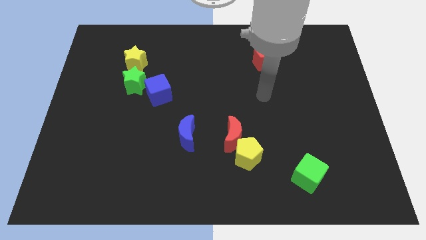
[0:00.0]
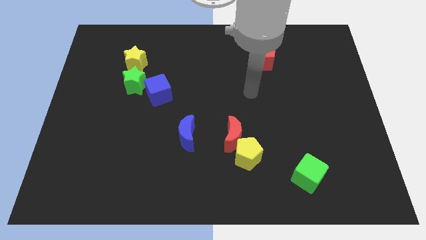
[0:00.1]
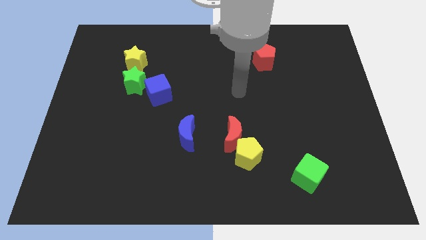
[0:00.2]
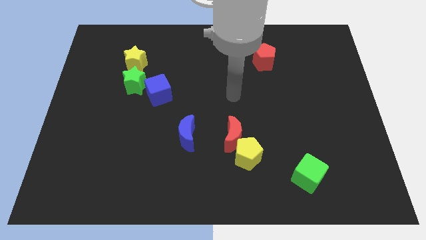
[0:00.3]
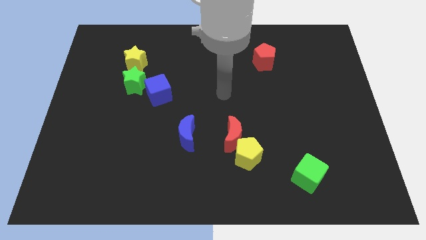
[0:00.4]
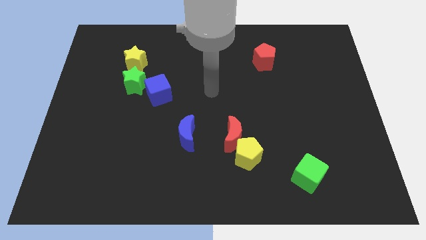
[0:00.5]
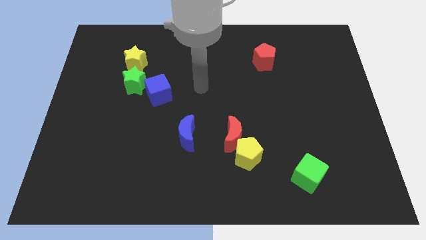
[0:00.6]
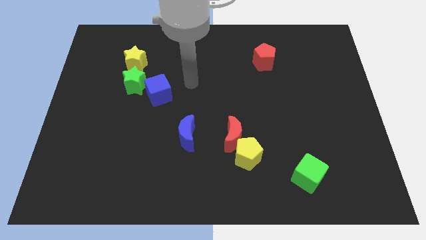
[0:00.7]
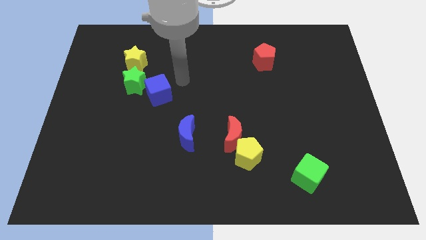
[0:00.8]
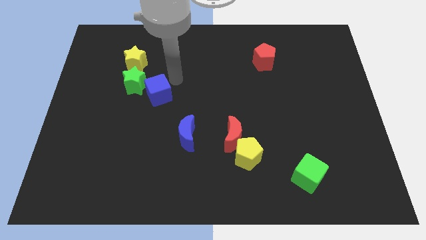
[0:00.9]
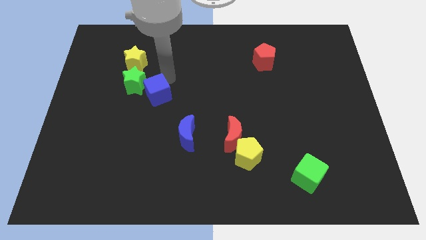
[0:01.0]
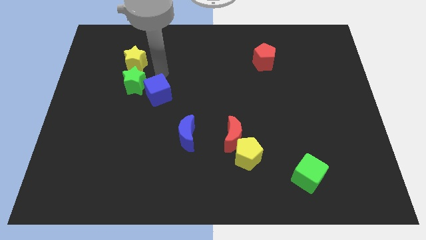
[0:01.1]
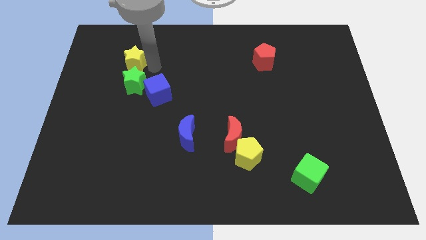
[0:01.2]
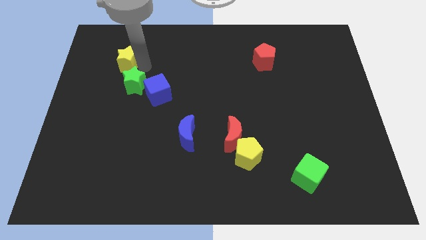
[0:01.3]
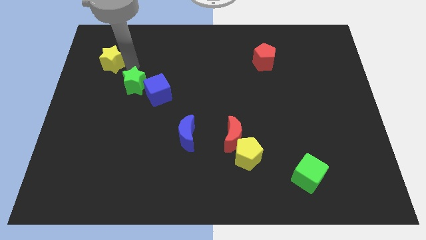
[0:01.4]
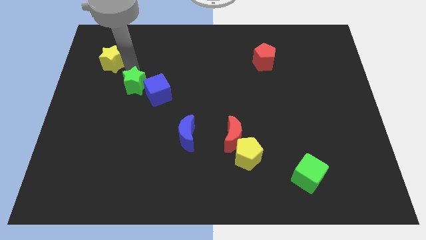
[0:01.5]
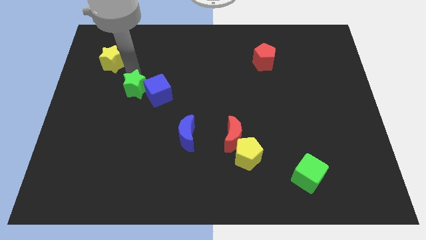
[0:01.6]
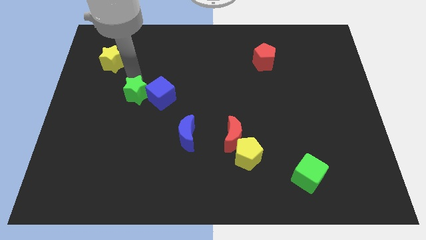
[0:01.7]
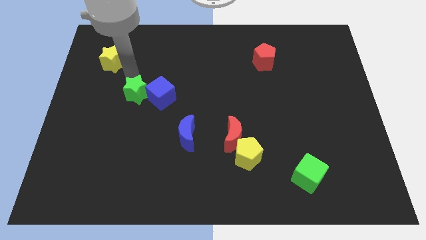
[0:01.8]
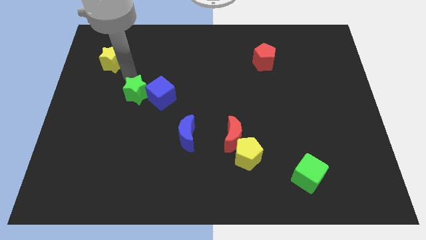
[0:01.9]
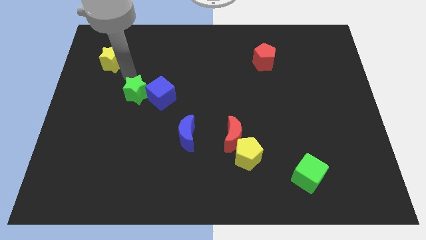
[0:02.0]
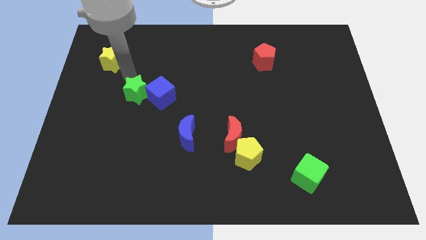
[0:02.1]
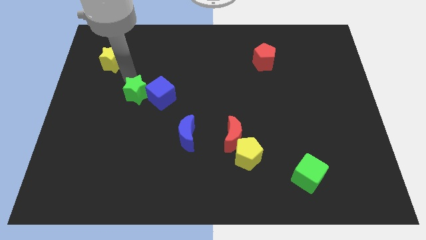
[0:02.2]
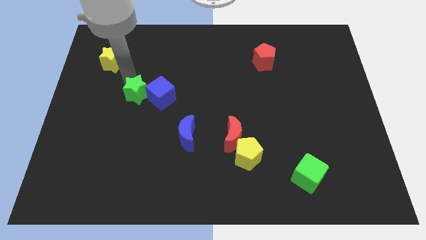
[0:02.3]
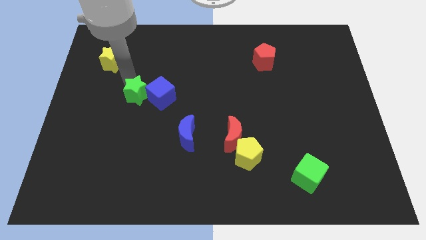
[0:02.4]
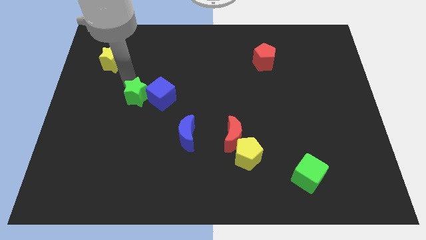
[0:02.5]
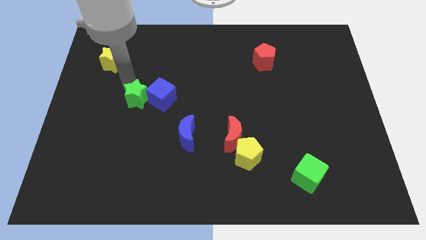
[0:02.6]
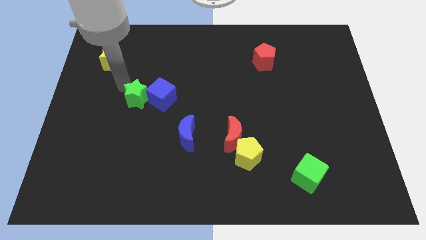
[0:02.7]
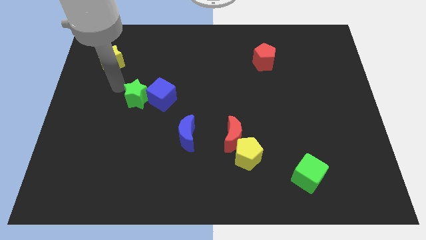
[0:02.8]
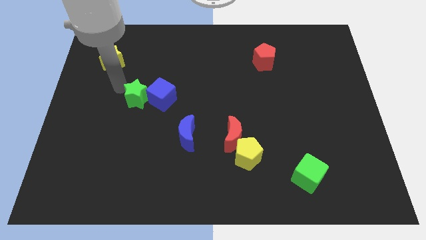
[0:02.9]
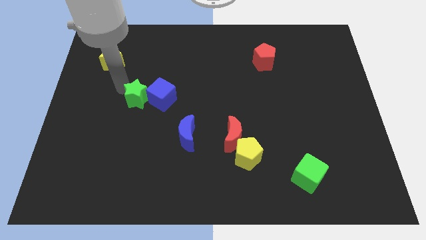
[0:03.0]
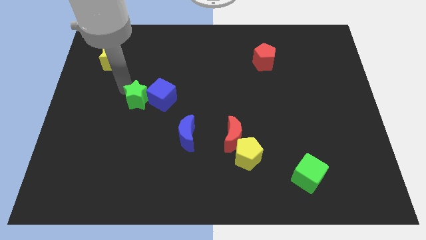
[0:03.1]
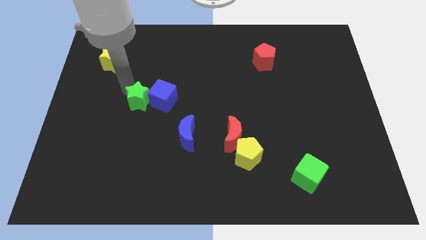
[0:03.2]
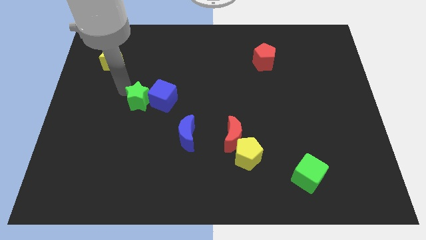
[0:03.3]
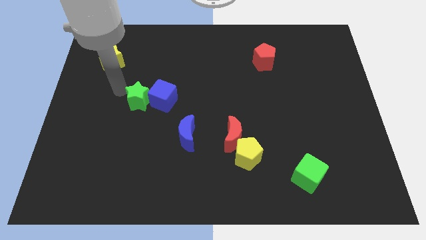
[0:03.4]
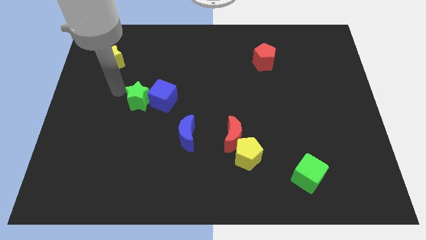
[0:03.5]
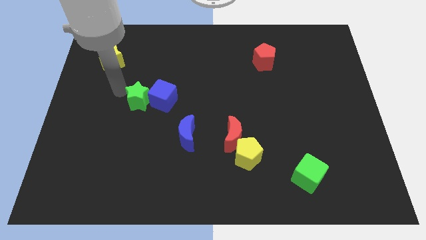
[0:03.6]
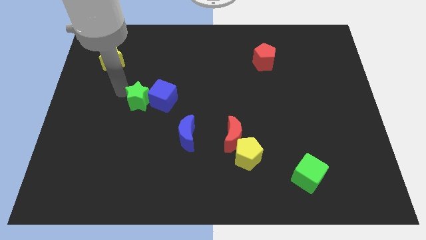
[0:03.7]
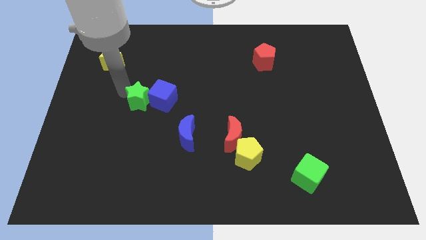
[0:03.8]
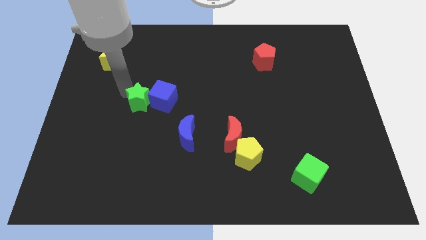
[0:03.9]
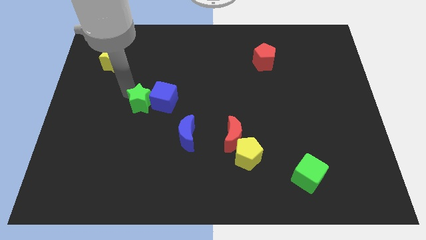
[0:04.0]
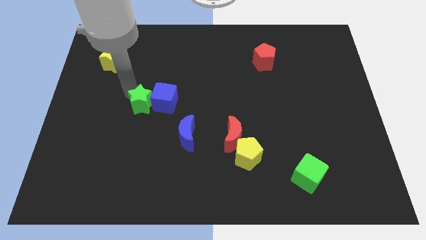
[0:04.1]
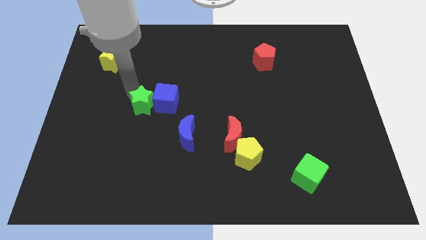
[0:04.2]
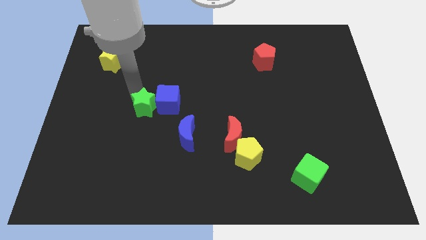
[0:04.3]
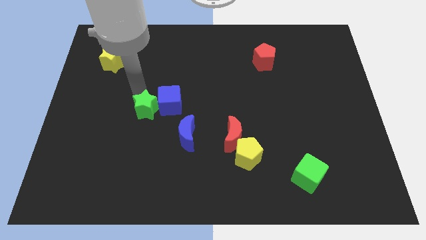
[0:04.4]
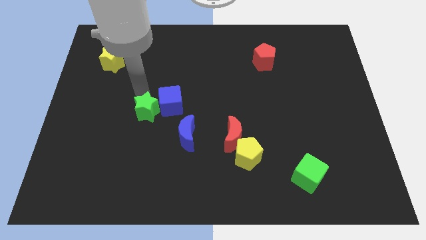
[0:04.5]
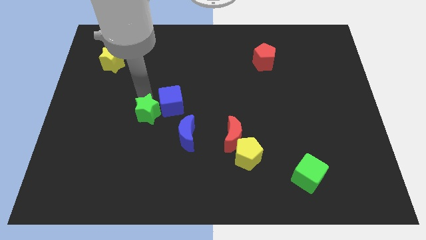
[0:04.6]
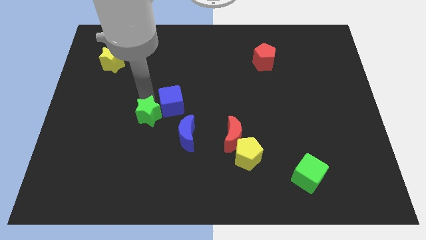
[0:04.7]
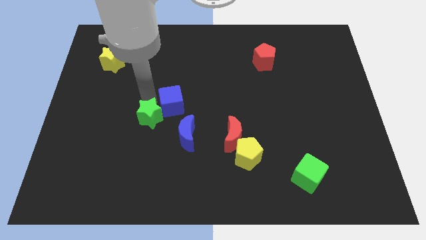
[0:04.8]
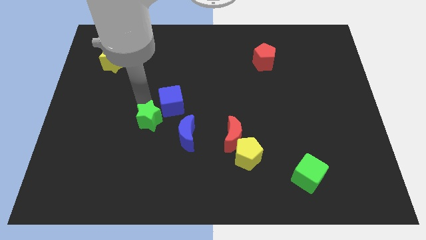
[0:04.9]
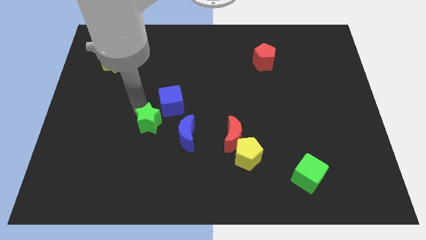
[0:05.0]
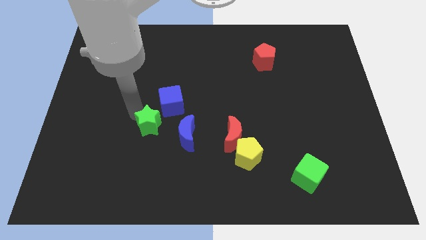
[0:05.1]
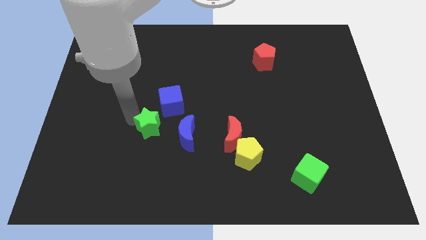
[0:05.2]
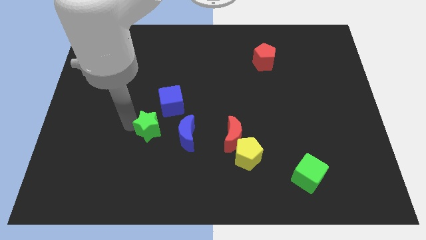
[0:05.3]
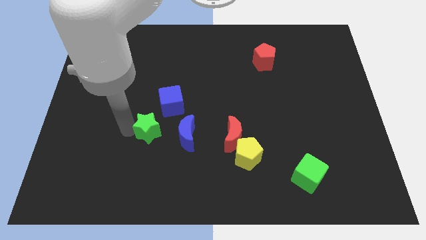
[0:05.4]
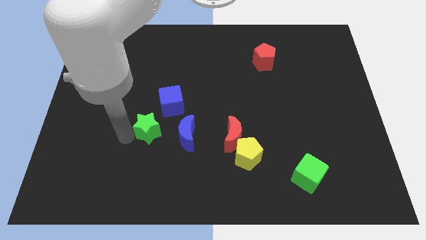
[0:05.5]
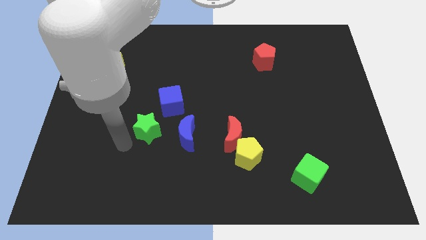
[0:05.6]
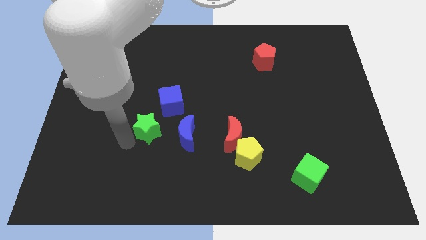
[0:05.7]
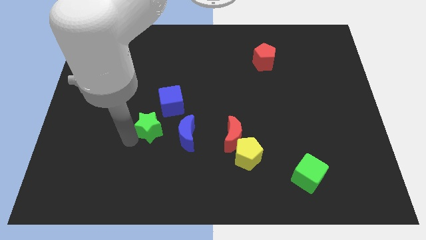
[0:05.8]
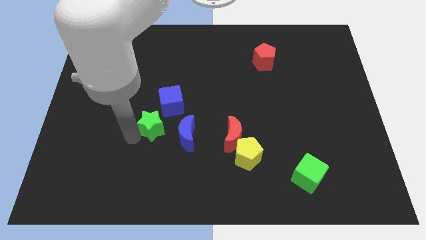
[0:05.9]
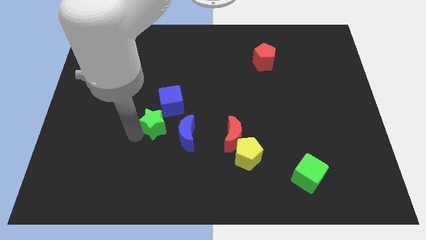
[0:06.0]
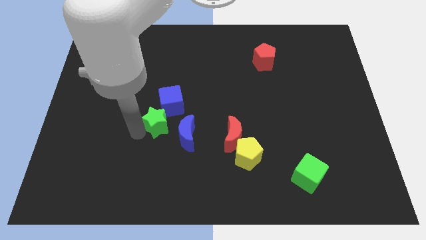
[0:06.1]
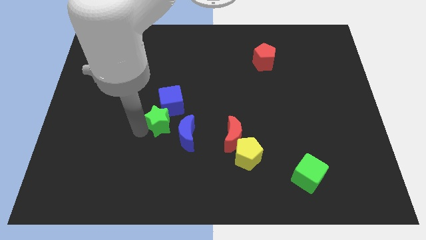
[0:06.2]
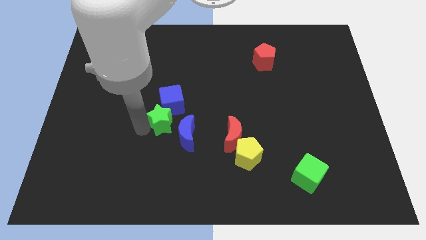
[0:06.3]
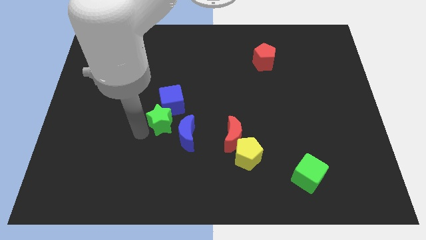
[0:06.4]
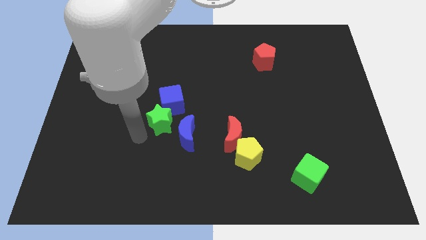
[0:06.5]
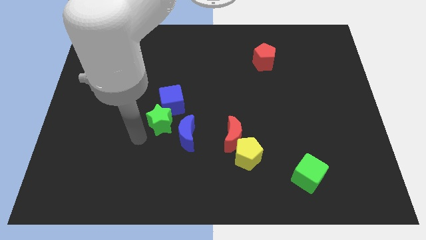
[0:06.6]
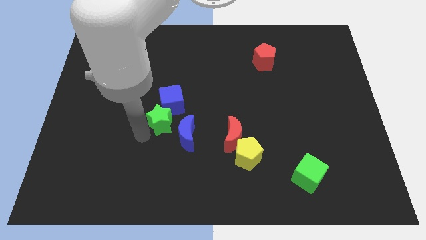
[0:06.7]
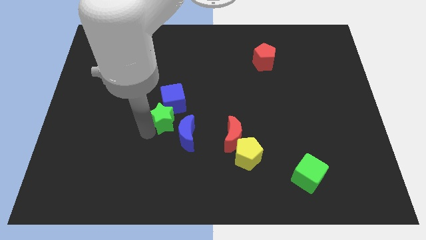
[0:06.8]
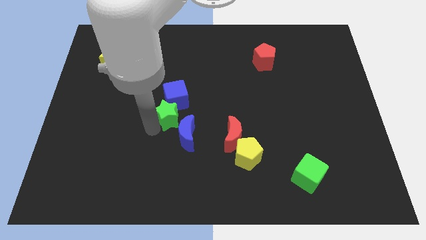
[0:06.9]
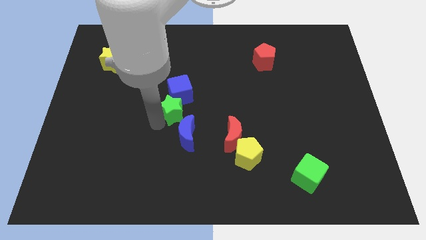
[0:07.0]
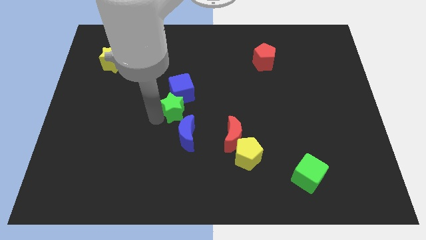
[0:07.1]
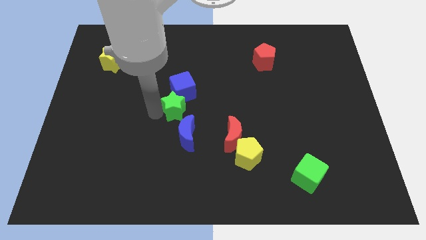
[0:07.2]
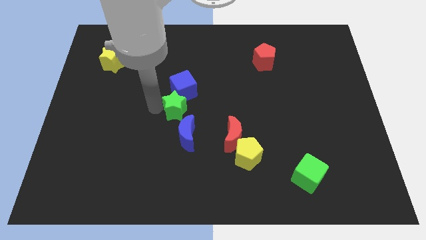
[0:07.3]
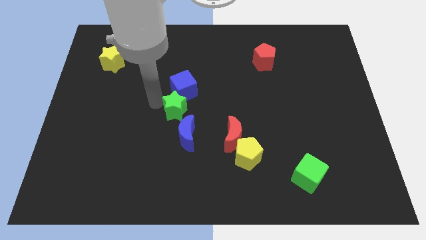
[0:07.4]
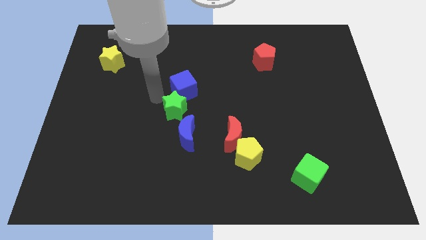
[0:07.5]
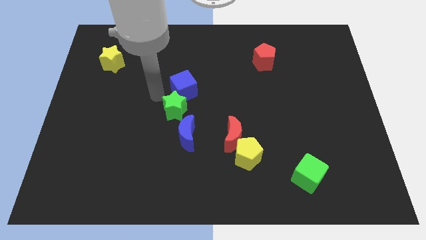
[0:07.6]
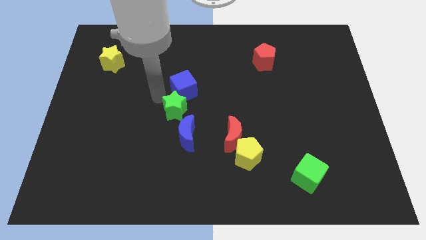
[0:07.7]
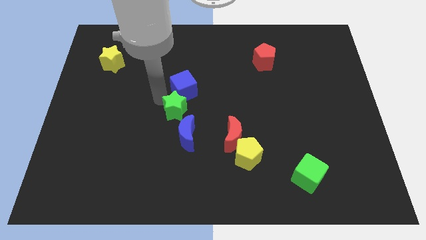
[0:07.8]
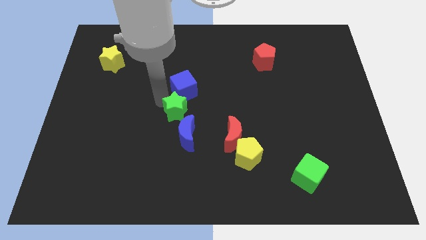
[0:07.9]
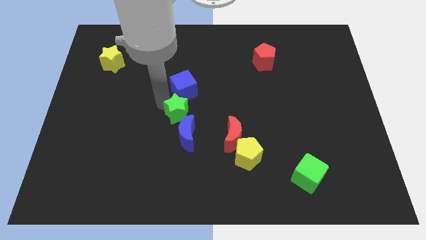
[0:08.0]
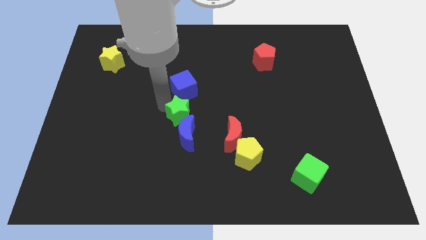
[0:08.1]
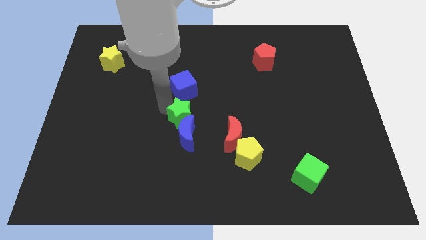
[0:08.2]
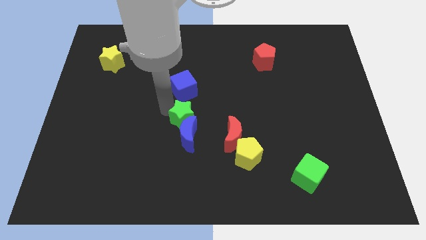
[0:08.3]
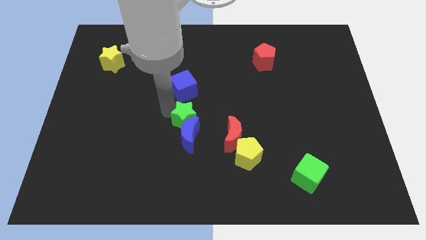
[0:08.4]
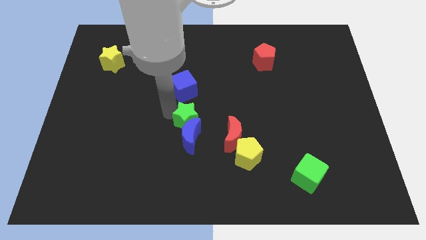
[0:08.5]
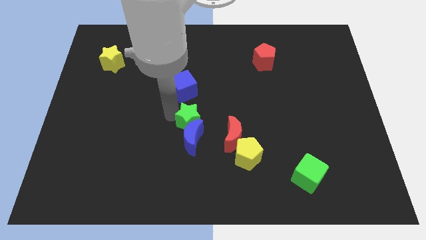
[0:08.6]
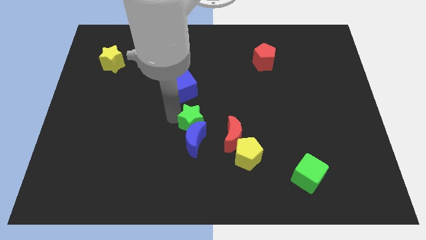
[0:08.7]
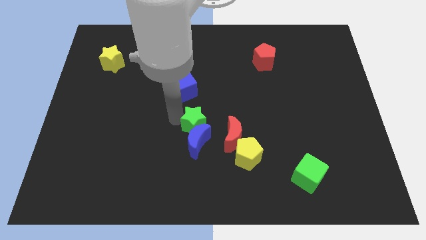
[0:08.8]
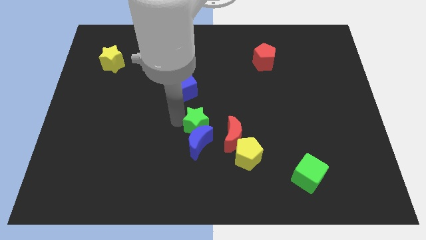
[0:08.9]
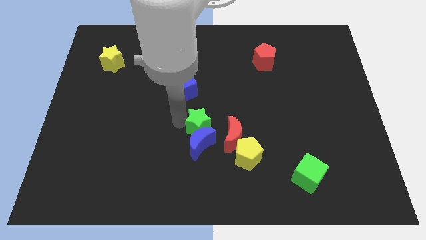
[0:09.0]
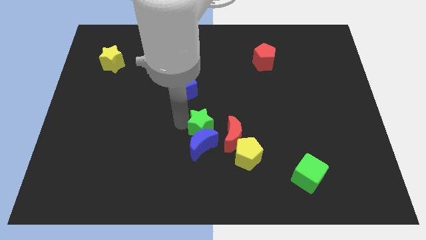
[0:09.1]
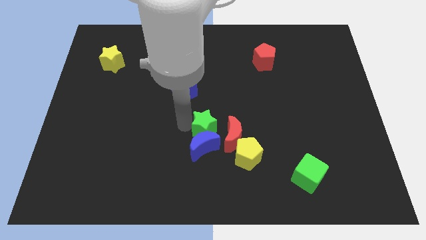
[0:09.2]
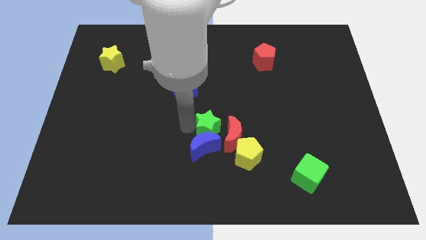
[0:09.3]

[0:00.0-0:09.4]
put the green star to the red moon
